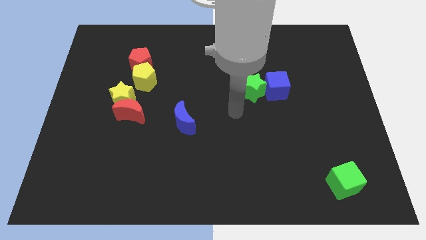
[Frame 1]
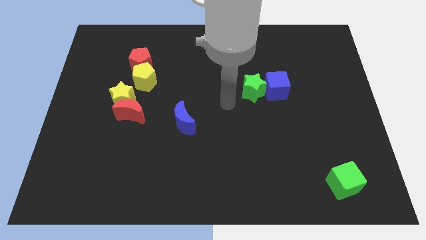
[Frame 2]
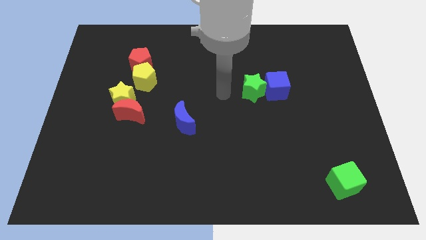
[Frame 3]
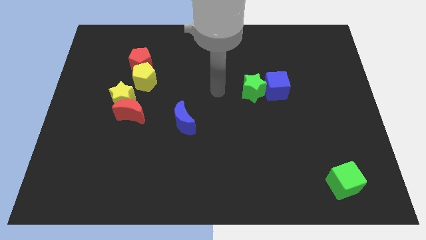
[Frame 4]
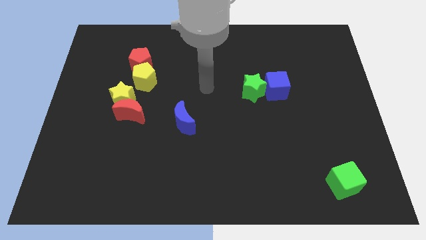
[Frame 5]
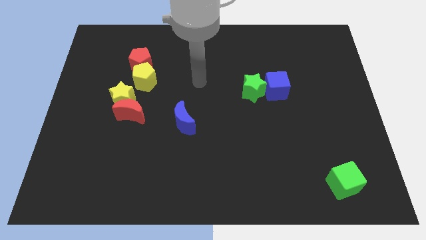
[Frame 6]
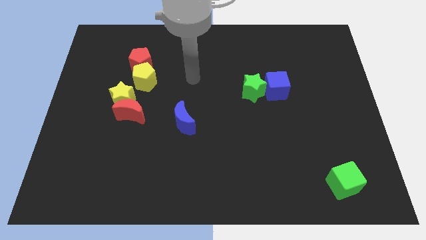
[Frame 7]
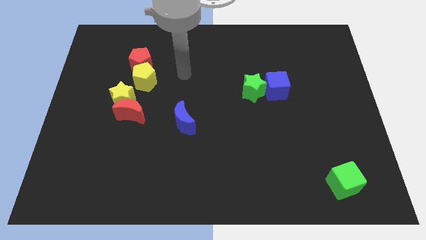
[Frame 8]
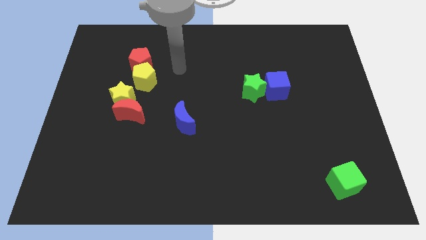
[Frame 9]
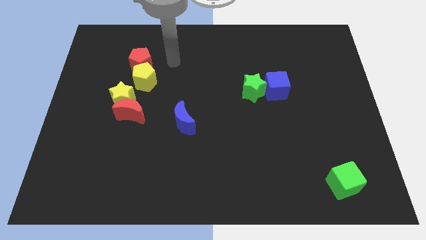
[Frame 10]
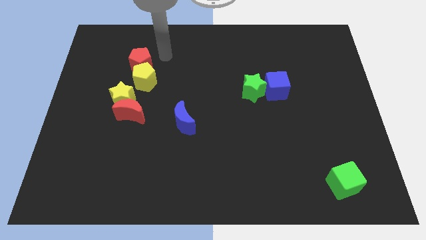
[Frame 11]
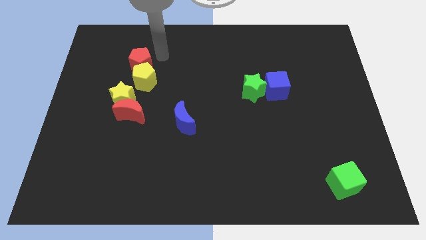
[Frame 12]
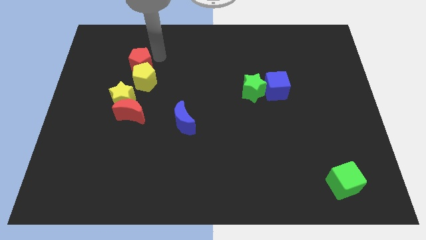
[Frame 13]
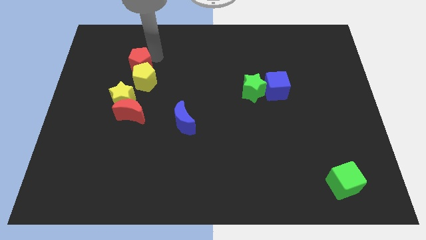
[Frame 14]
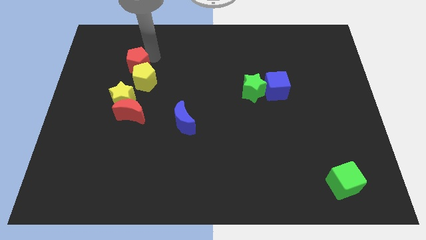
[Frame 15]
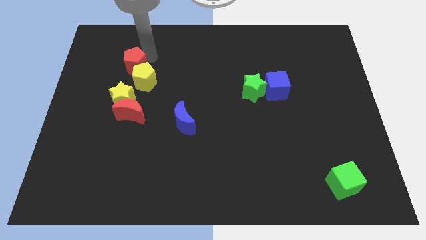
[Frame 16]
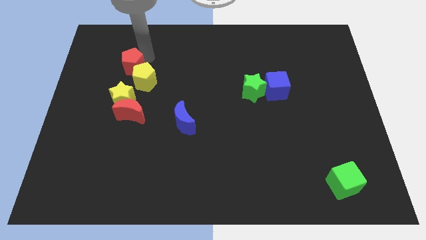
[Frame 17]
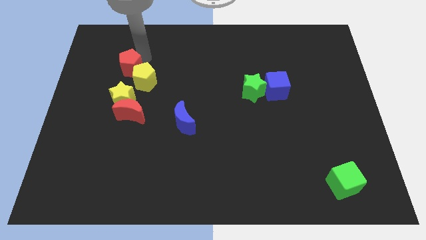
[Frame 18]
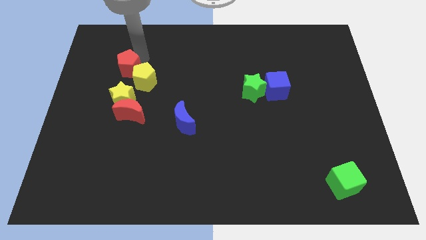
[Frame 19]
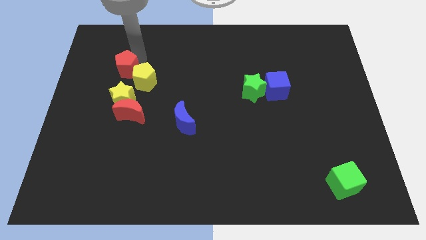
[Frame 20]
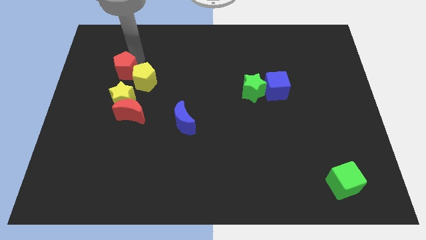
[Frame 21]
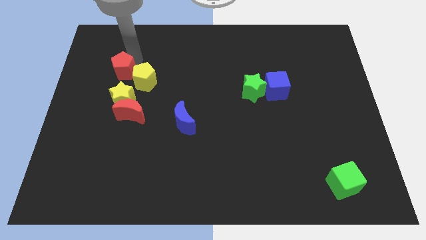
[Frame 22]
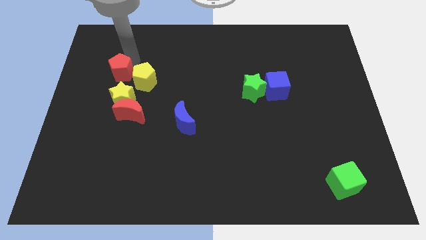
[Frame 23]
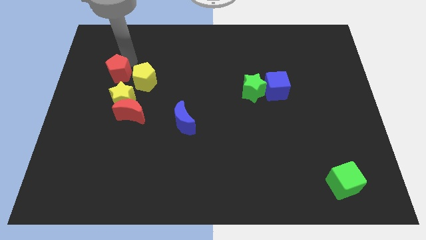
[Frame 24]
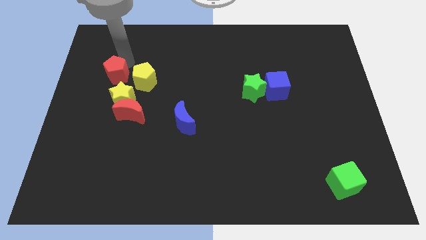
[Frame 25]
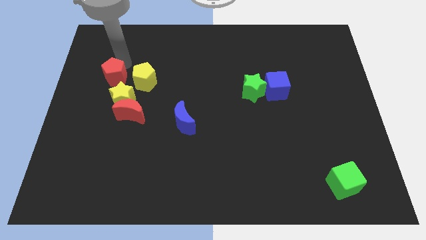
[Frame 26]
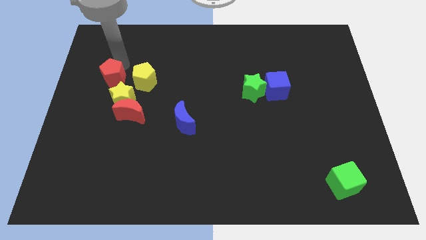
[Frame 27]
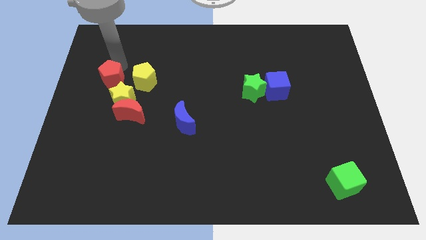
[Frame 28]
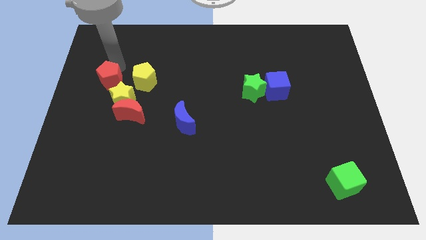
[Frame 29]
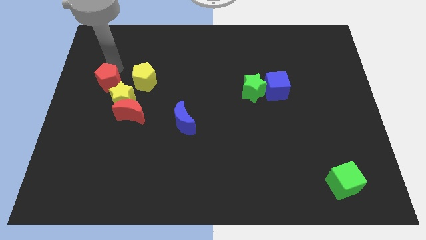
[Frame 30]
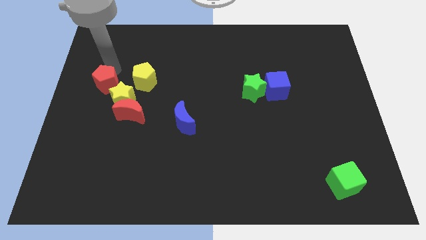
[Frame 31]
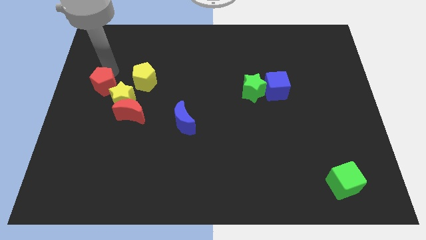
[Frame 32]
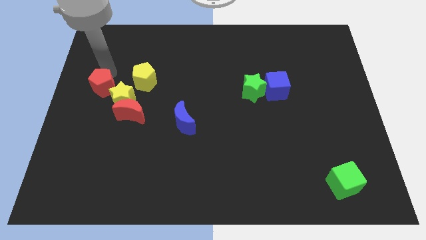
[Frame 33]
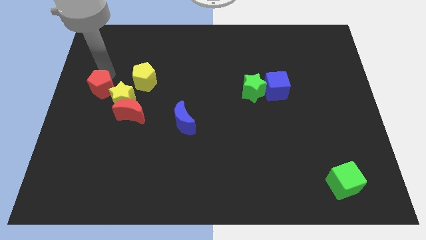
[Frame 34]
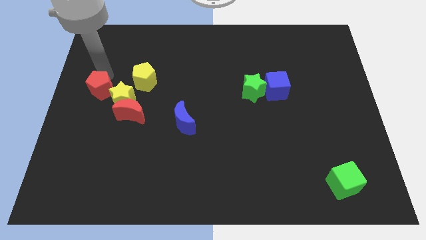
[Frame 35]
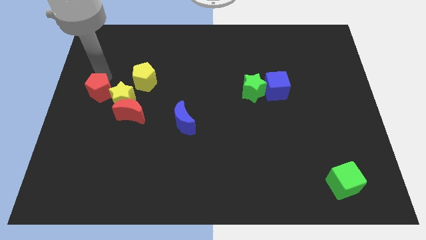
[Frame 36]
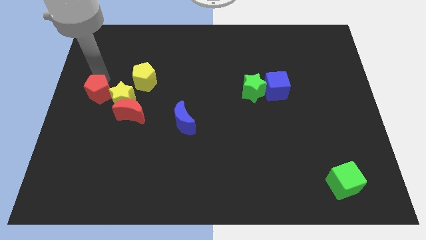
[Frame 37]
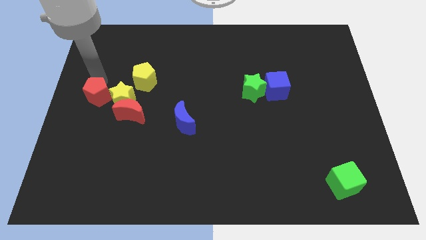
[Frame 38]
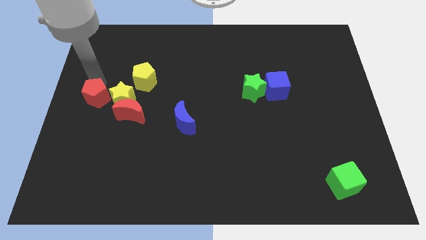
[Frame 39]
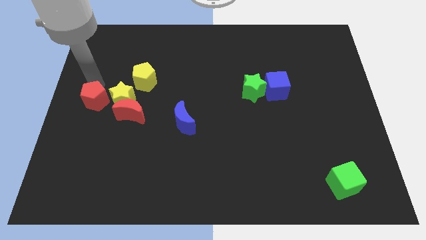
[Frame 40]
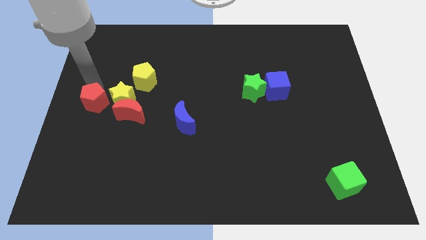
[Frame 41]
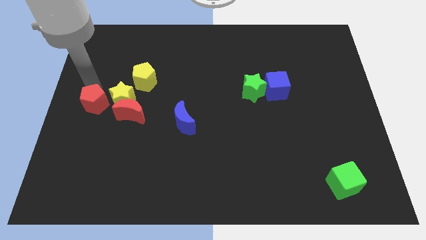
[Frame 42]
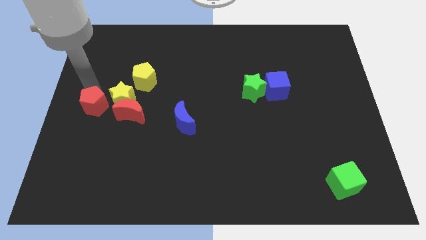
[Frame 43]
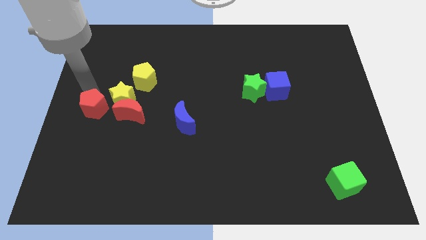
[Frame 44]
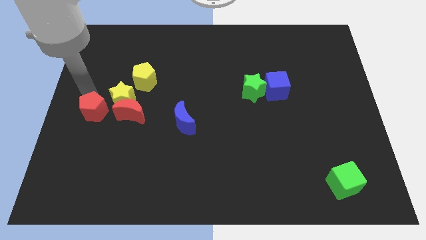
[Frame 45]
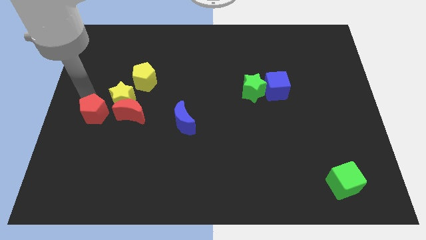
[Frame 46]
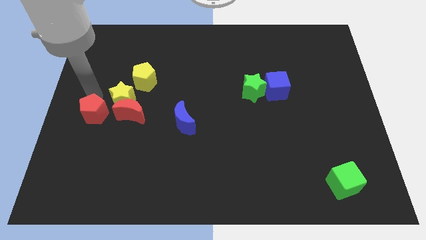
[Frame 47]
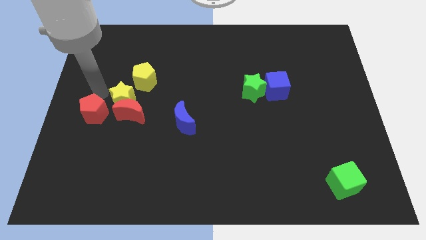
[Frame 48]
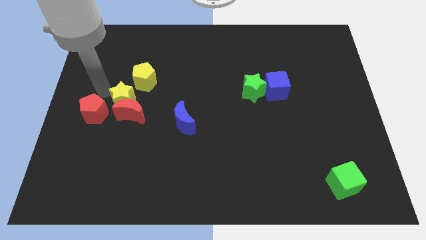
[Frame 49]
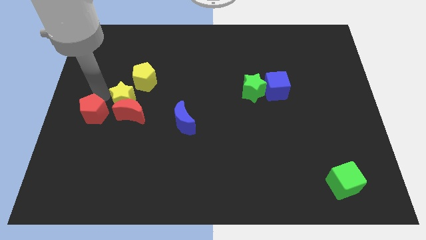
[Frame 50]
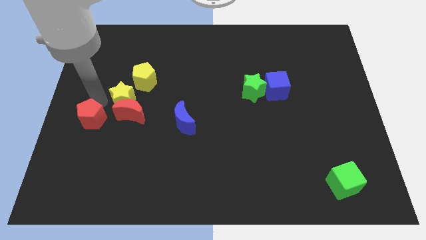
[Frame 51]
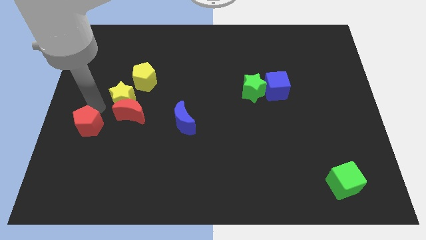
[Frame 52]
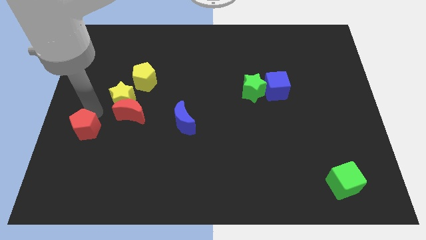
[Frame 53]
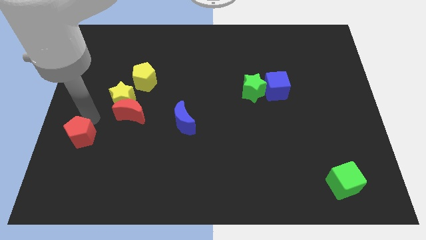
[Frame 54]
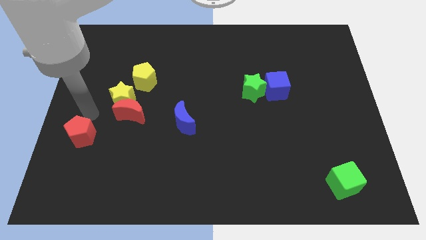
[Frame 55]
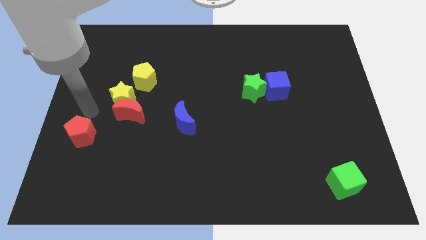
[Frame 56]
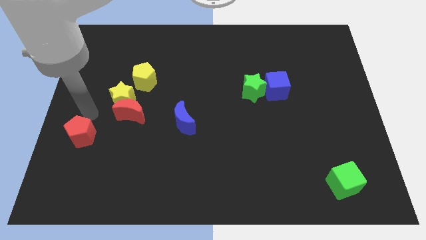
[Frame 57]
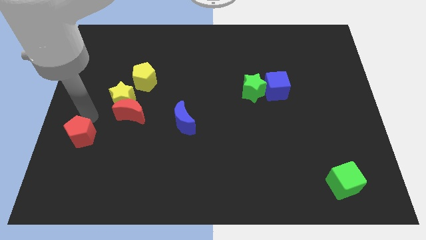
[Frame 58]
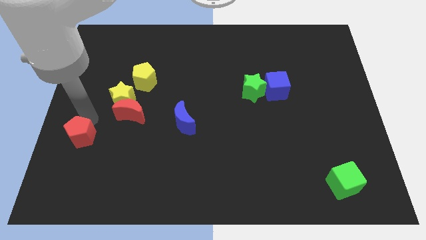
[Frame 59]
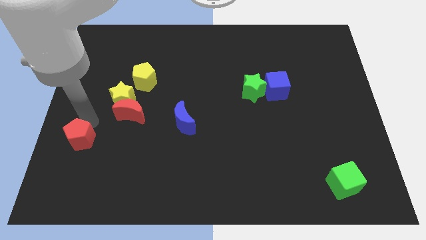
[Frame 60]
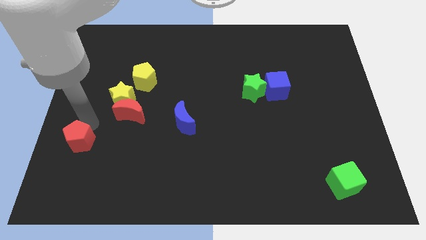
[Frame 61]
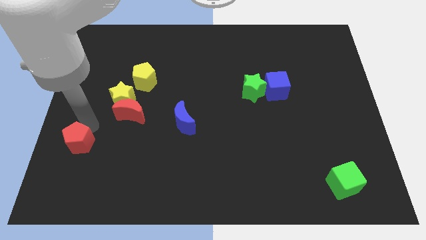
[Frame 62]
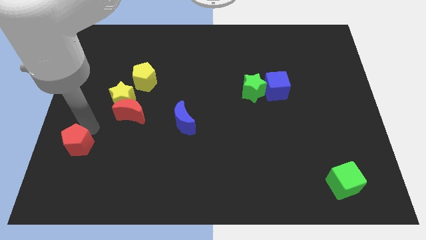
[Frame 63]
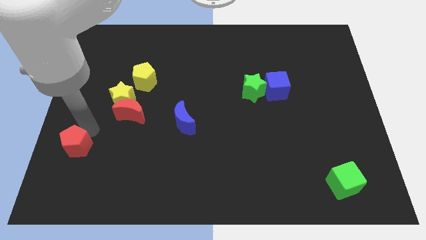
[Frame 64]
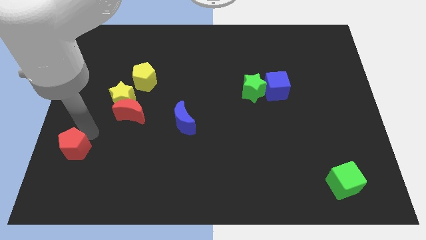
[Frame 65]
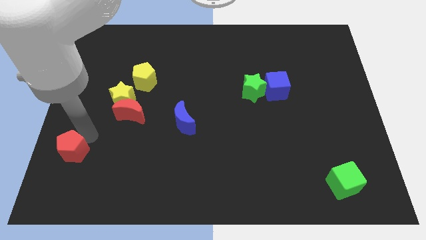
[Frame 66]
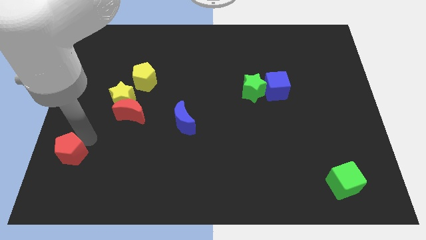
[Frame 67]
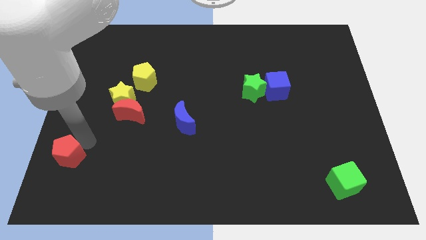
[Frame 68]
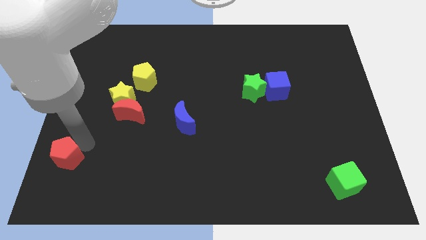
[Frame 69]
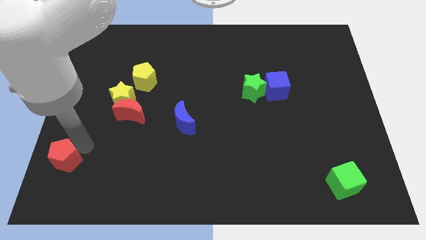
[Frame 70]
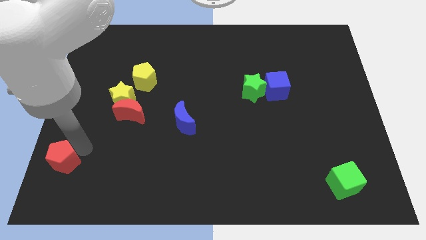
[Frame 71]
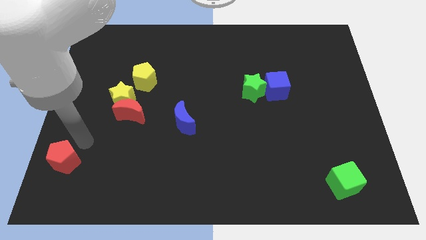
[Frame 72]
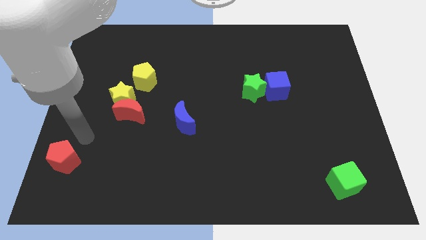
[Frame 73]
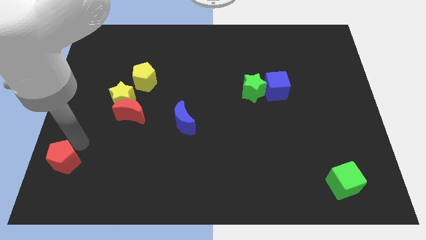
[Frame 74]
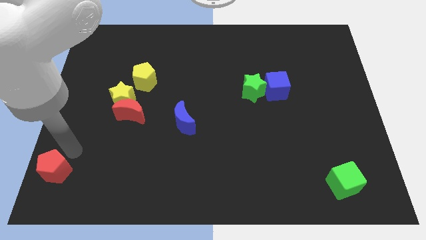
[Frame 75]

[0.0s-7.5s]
put the red pentagon to the bottom left
